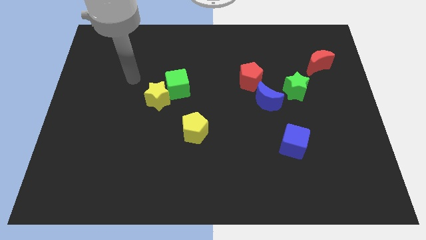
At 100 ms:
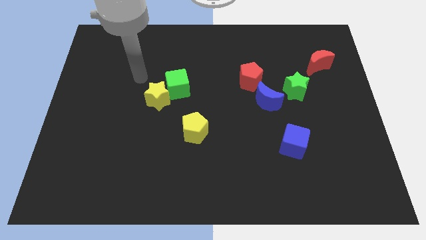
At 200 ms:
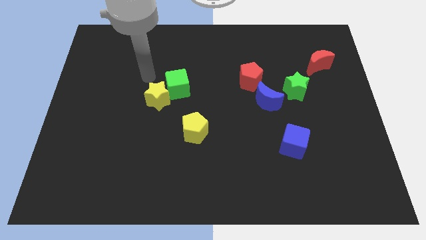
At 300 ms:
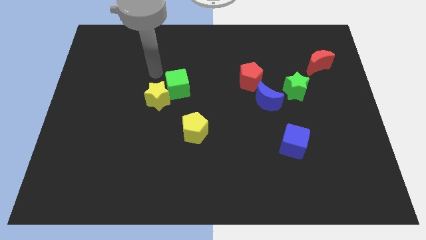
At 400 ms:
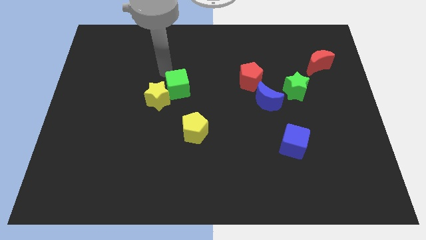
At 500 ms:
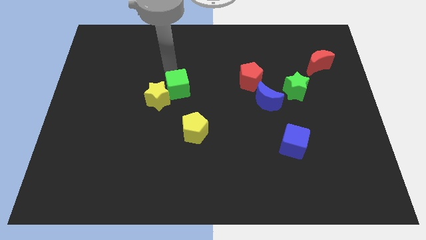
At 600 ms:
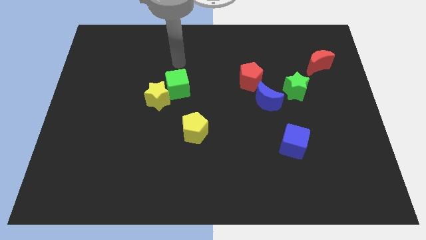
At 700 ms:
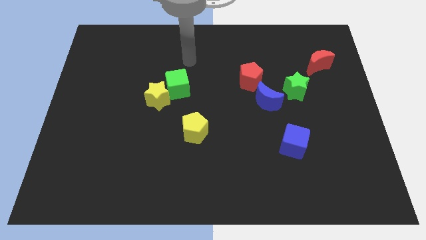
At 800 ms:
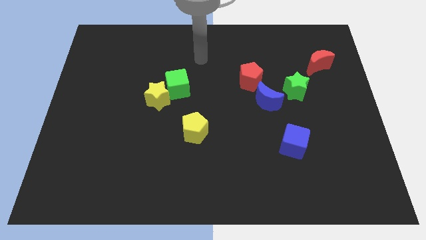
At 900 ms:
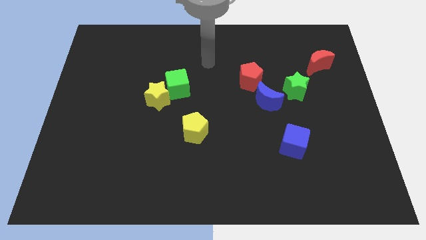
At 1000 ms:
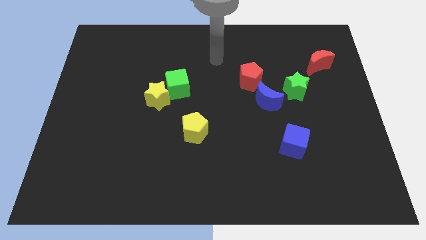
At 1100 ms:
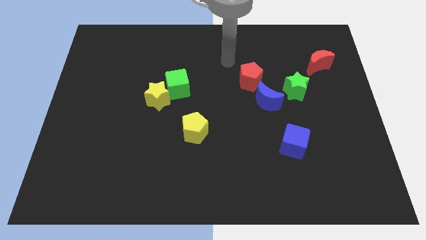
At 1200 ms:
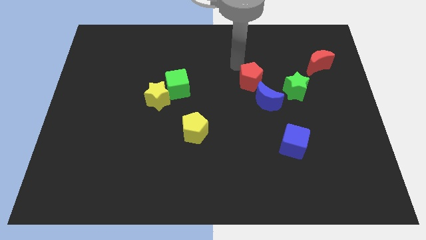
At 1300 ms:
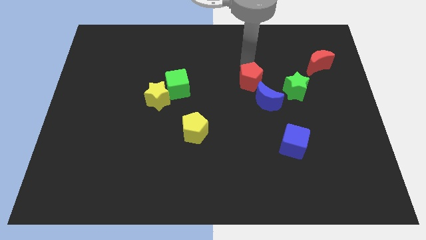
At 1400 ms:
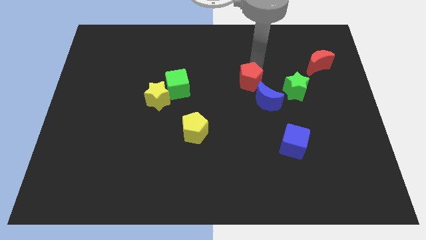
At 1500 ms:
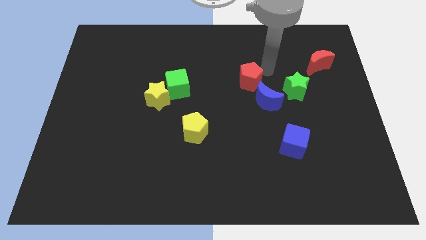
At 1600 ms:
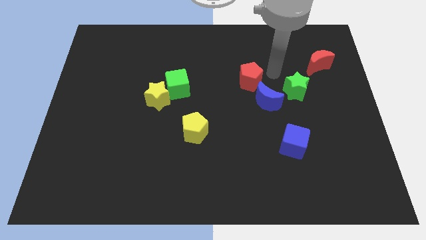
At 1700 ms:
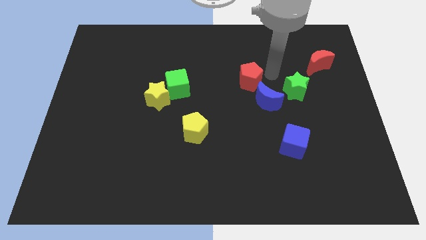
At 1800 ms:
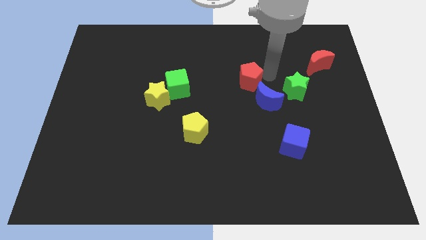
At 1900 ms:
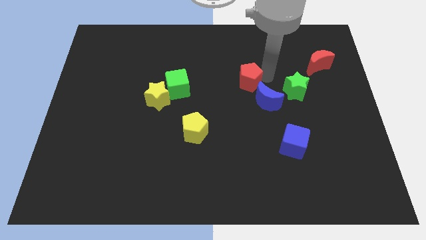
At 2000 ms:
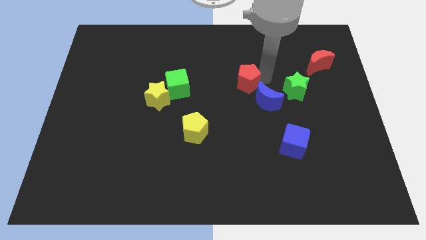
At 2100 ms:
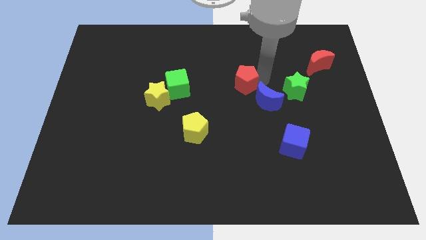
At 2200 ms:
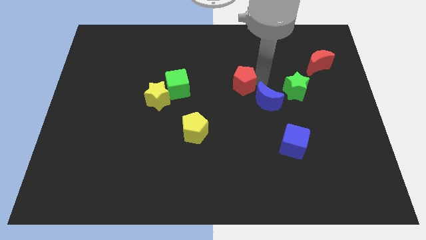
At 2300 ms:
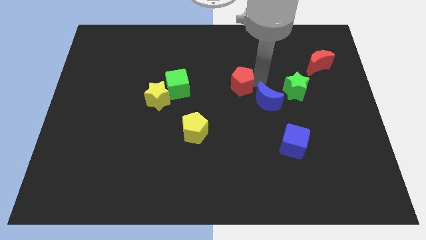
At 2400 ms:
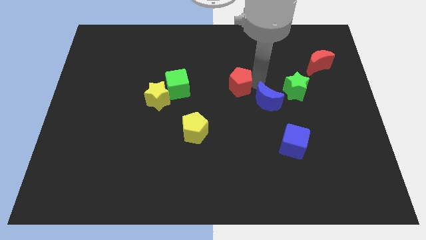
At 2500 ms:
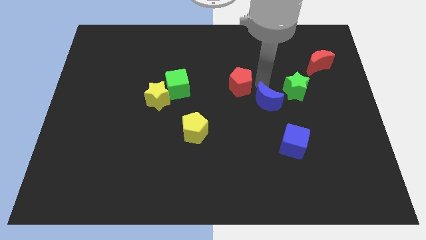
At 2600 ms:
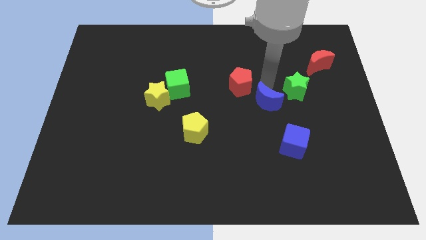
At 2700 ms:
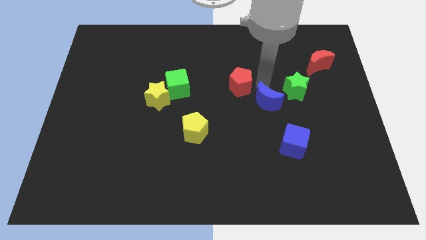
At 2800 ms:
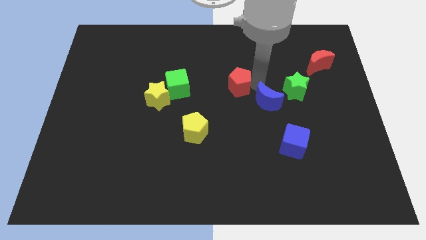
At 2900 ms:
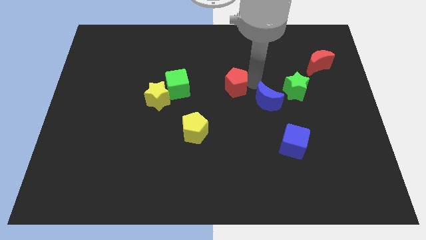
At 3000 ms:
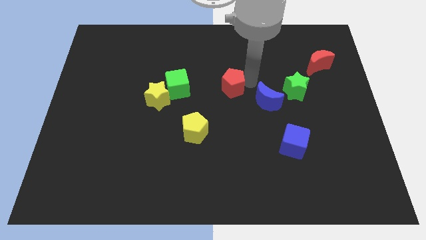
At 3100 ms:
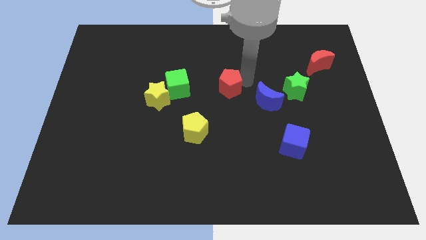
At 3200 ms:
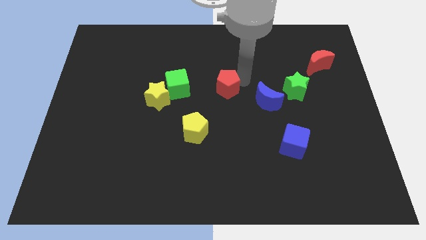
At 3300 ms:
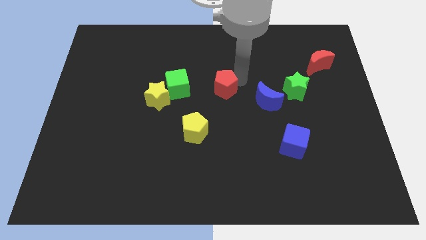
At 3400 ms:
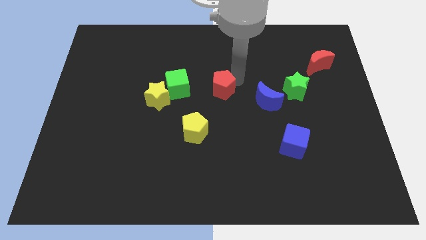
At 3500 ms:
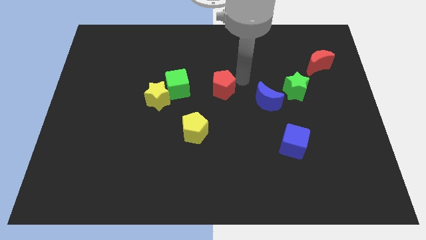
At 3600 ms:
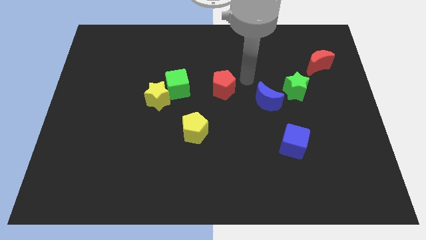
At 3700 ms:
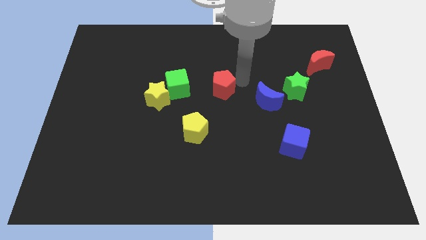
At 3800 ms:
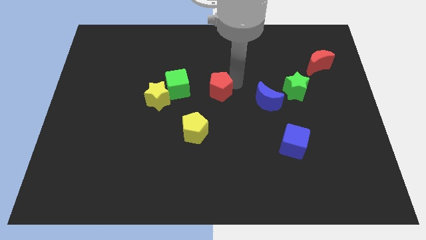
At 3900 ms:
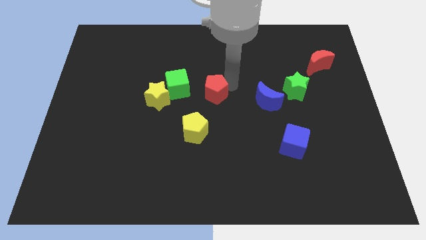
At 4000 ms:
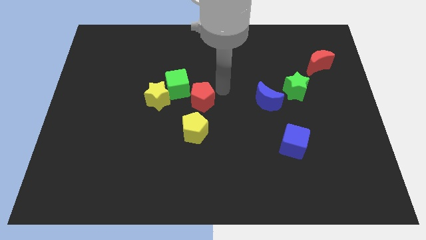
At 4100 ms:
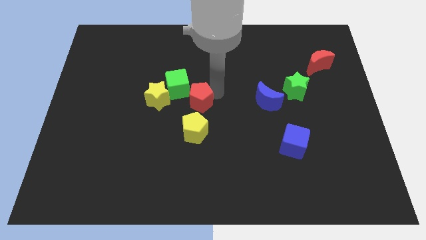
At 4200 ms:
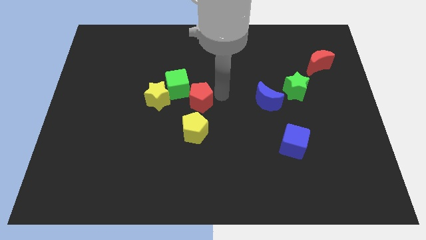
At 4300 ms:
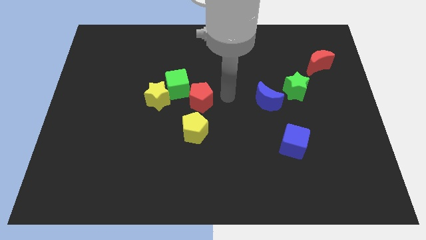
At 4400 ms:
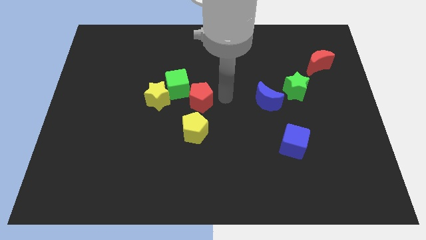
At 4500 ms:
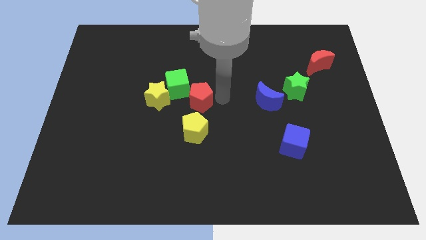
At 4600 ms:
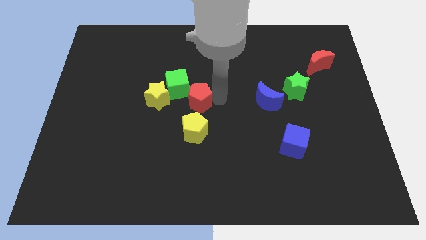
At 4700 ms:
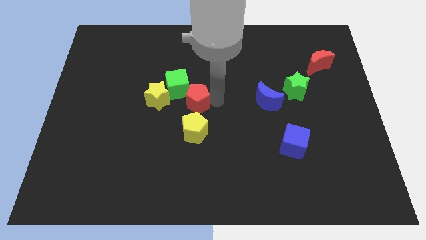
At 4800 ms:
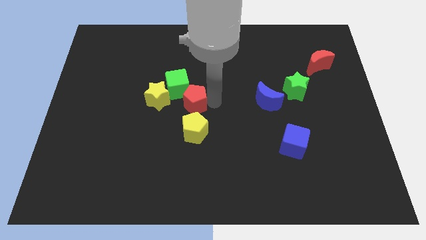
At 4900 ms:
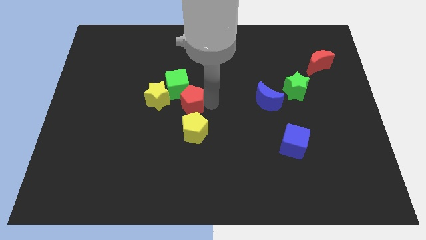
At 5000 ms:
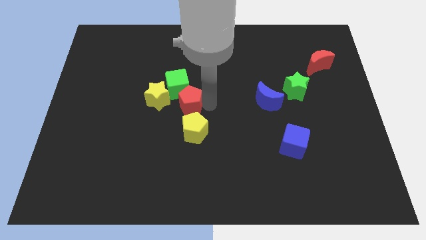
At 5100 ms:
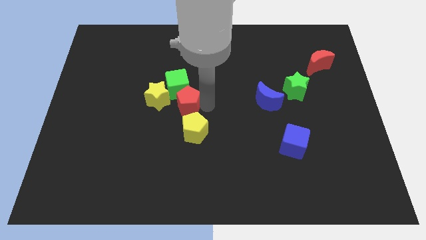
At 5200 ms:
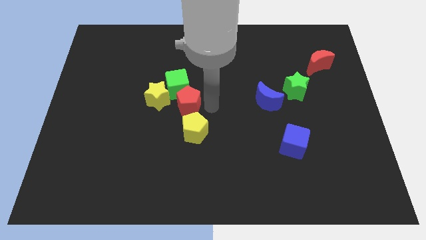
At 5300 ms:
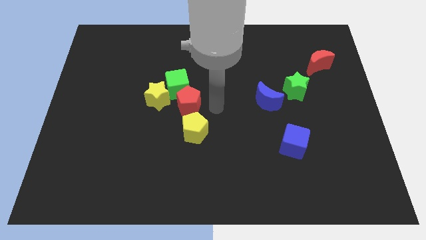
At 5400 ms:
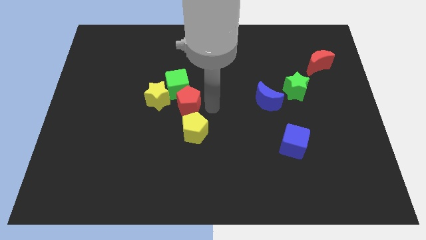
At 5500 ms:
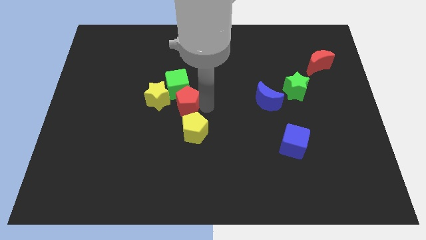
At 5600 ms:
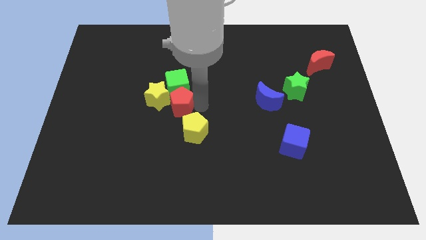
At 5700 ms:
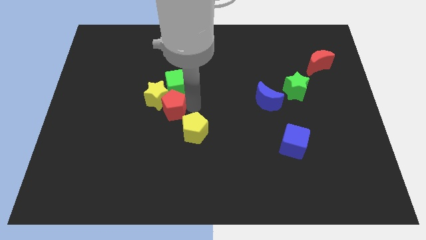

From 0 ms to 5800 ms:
put the red pentagon to the yellow star
